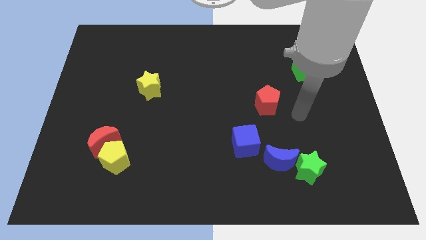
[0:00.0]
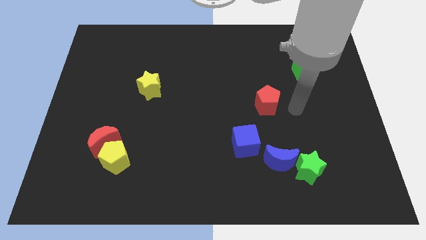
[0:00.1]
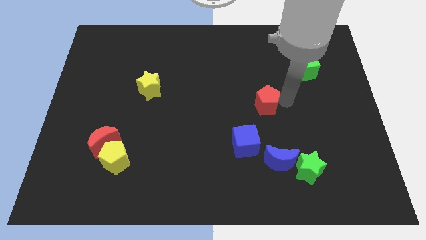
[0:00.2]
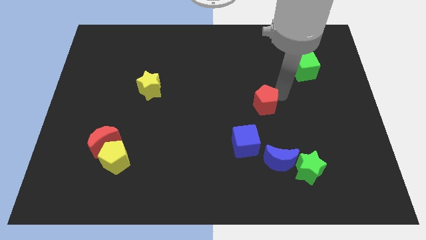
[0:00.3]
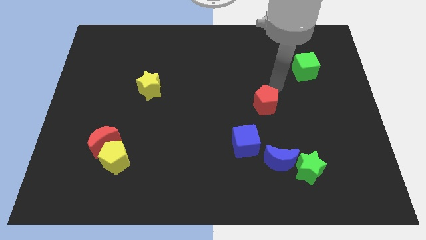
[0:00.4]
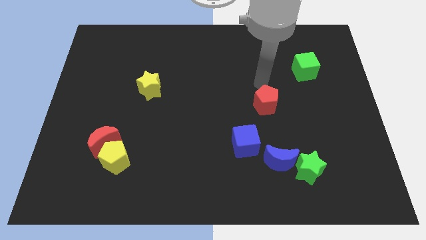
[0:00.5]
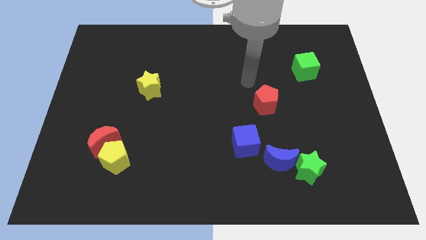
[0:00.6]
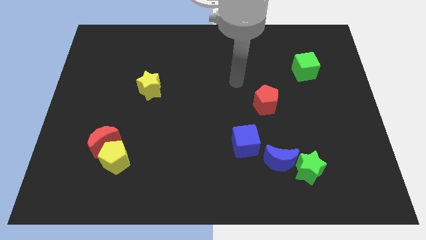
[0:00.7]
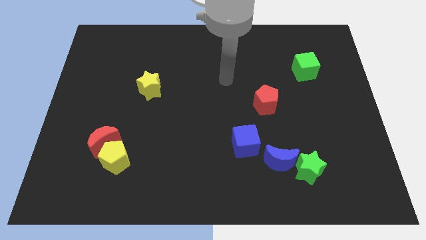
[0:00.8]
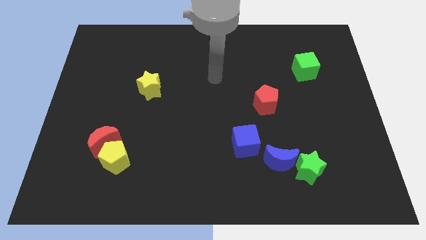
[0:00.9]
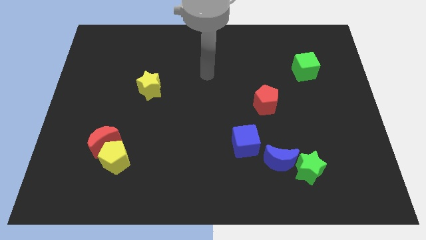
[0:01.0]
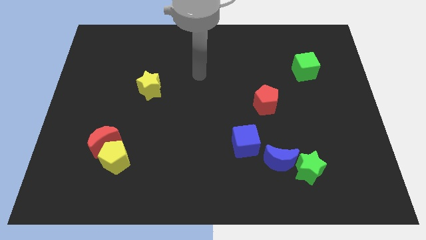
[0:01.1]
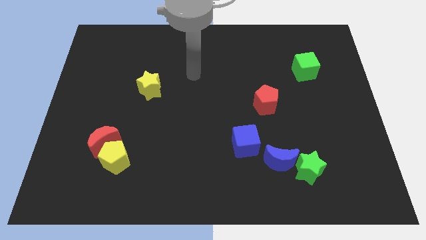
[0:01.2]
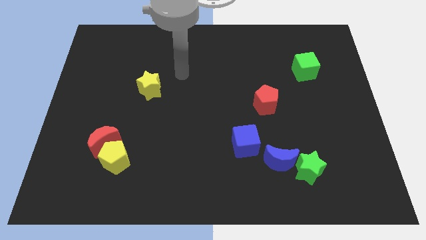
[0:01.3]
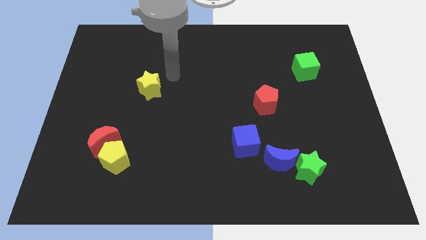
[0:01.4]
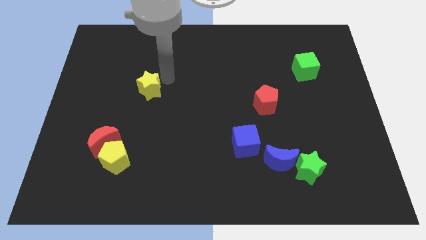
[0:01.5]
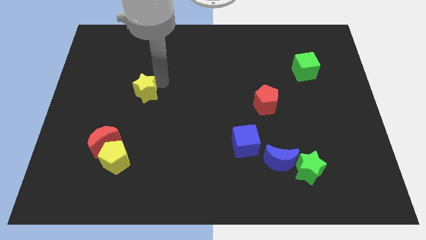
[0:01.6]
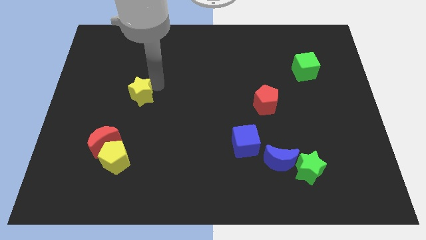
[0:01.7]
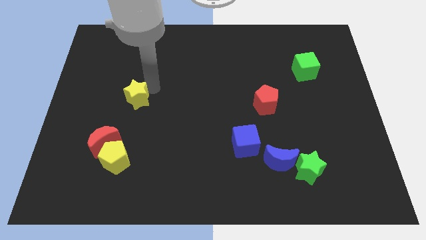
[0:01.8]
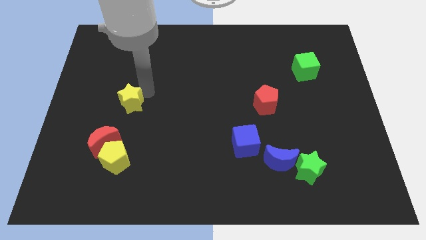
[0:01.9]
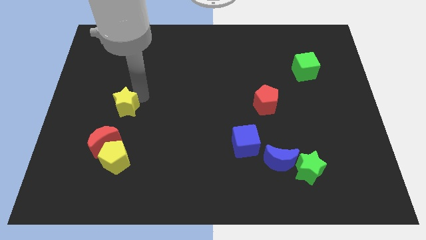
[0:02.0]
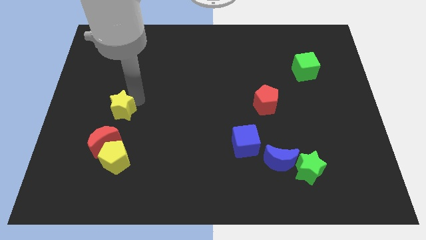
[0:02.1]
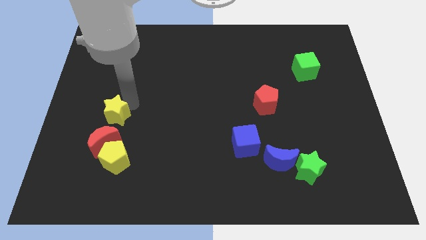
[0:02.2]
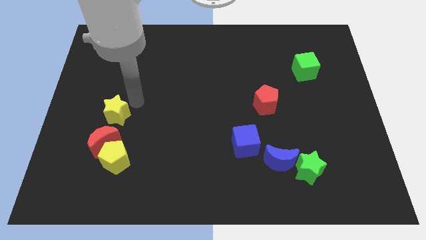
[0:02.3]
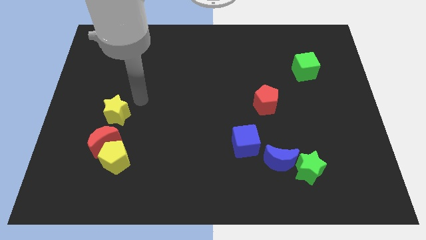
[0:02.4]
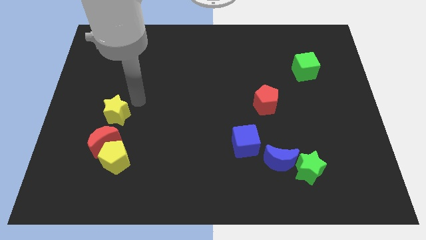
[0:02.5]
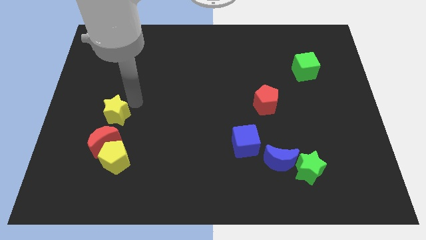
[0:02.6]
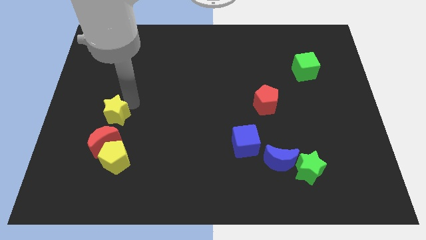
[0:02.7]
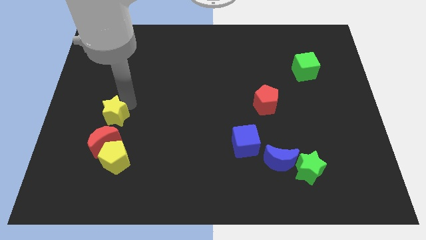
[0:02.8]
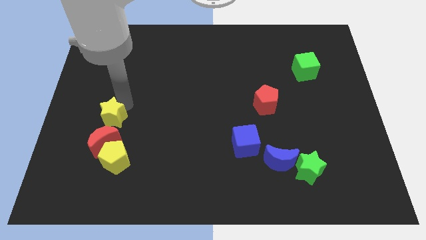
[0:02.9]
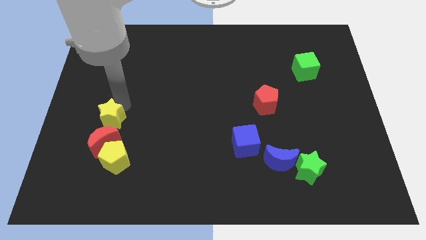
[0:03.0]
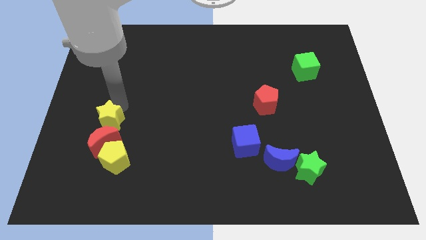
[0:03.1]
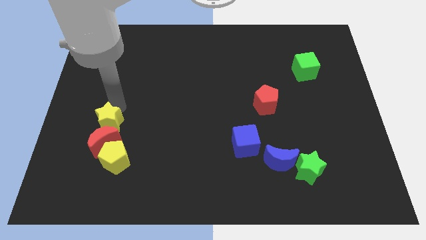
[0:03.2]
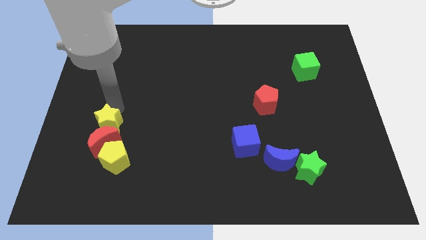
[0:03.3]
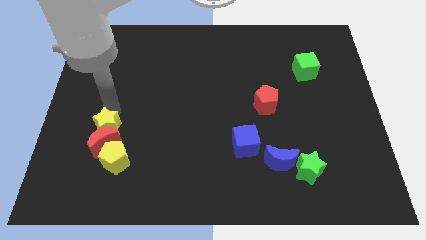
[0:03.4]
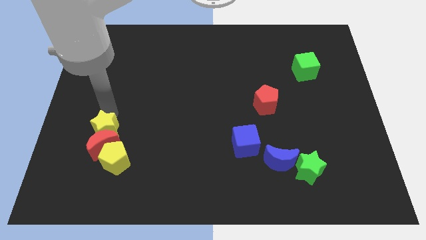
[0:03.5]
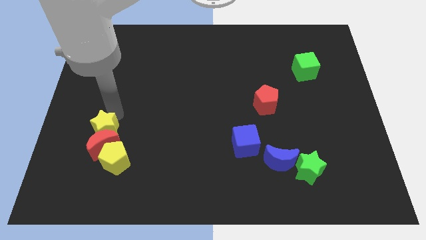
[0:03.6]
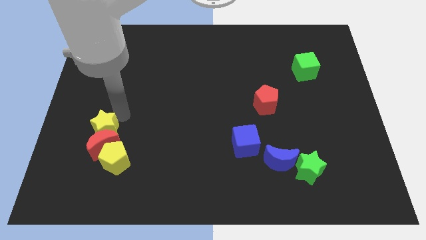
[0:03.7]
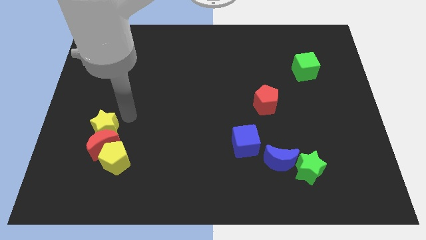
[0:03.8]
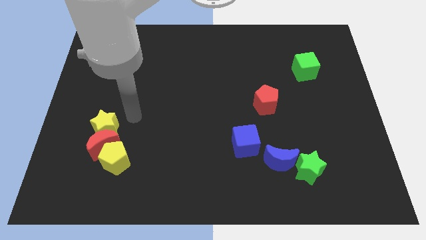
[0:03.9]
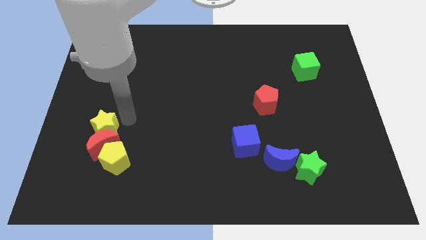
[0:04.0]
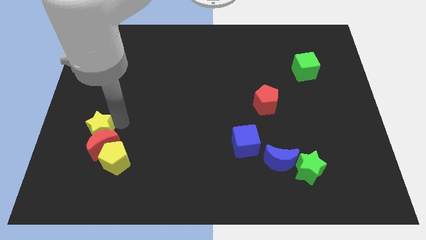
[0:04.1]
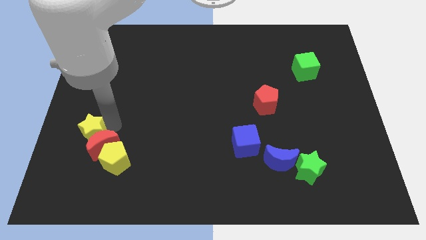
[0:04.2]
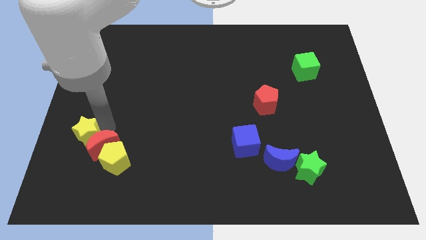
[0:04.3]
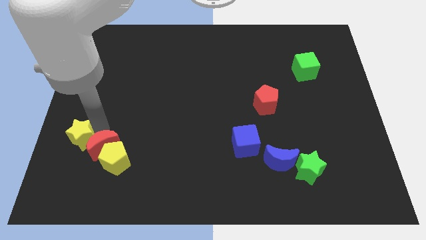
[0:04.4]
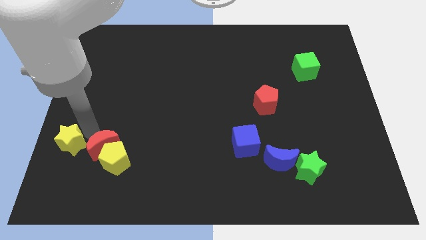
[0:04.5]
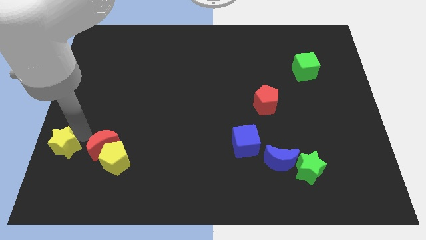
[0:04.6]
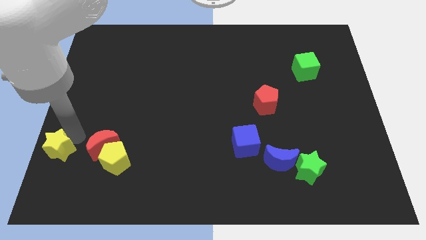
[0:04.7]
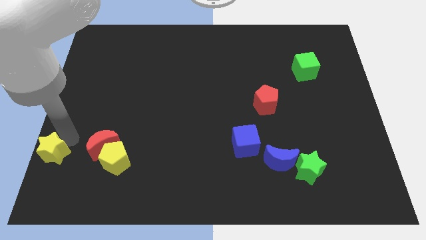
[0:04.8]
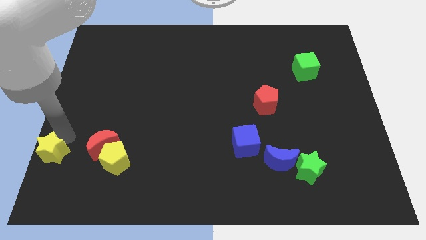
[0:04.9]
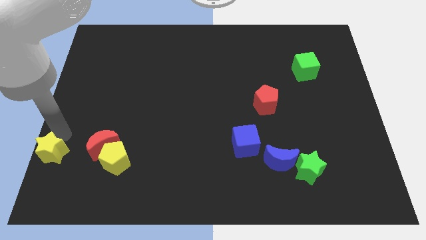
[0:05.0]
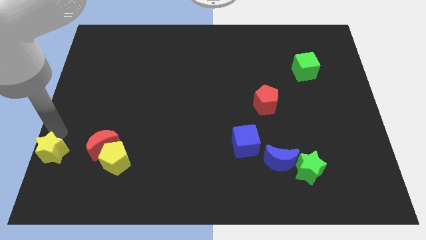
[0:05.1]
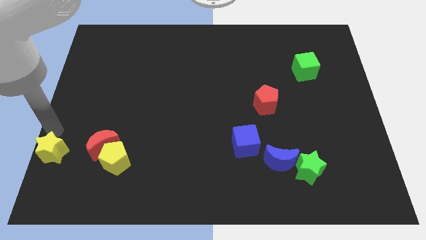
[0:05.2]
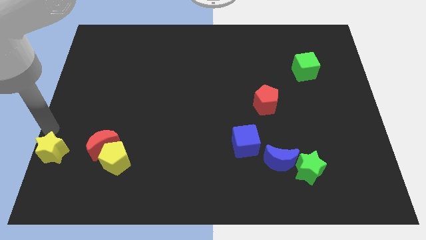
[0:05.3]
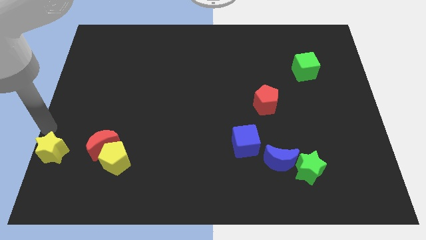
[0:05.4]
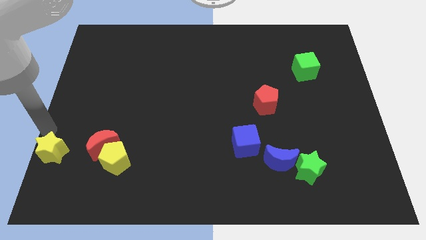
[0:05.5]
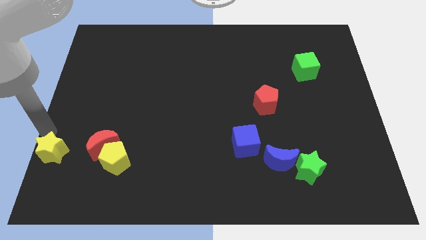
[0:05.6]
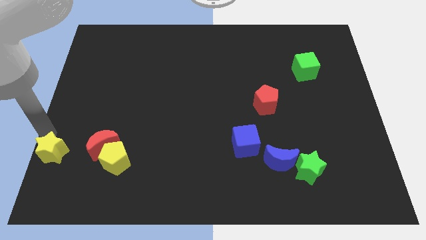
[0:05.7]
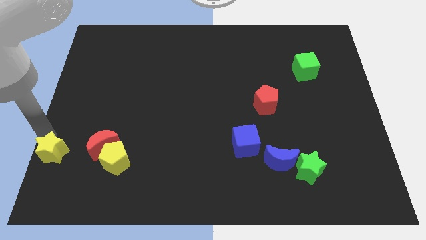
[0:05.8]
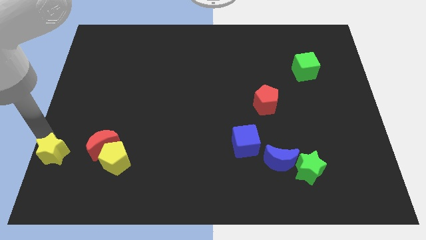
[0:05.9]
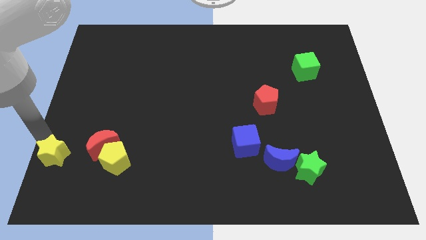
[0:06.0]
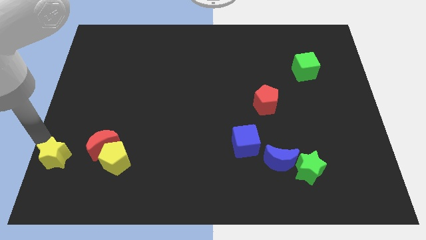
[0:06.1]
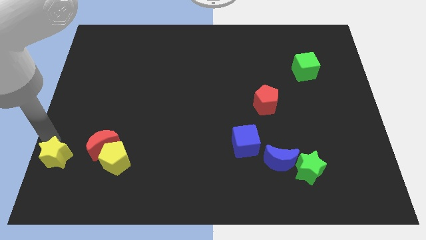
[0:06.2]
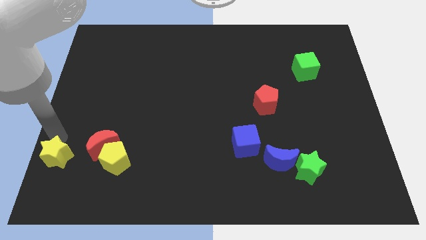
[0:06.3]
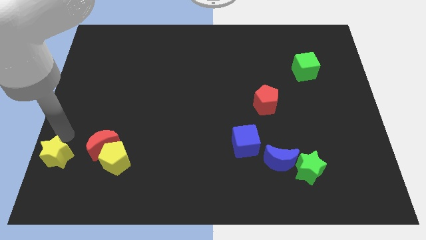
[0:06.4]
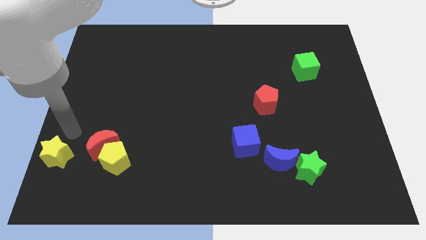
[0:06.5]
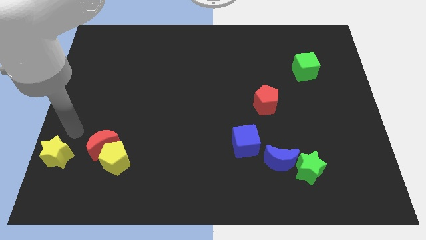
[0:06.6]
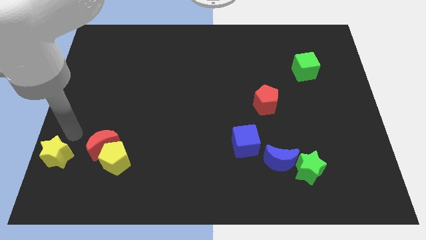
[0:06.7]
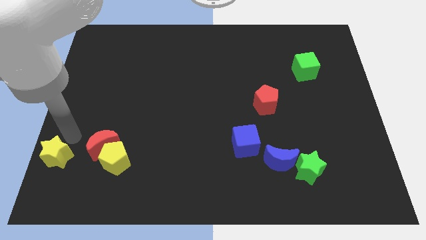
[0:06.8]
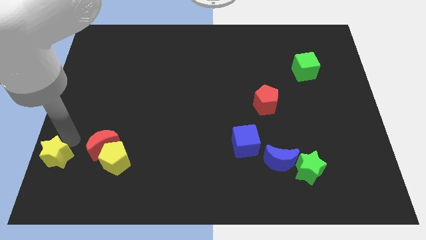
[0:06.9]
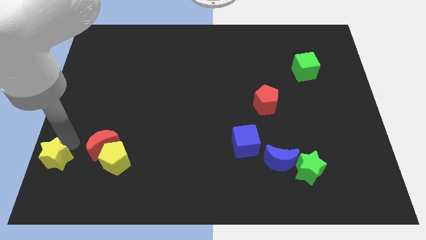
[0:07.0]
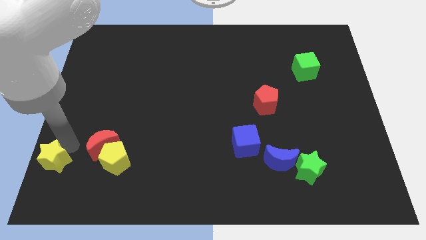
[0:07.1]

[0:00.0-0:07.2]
push the yellow star to the bottom left

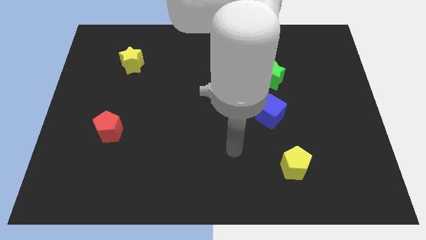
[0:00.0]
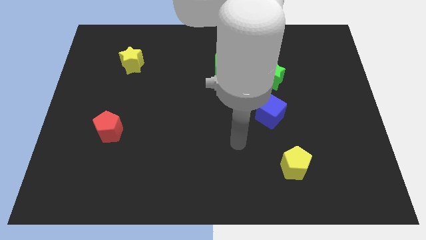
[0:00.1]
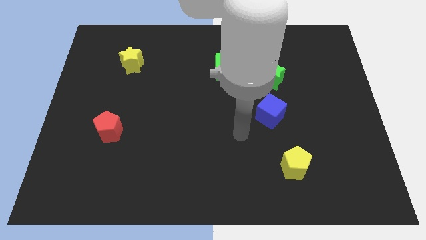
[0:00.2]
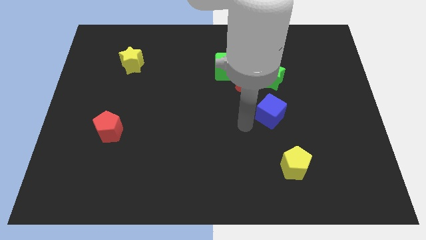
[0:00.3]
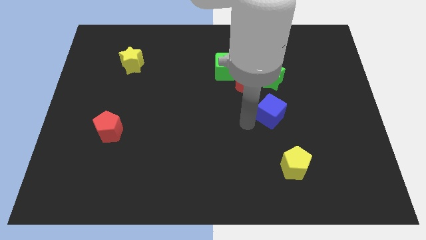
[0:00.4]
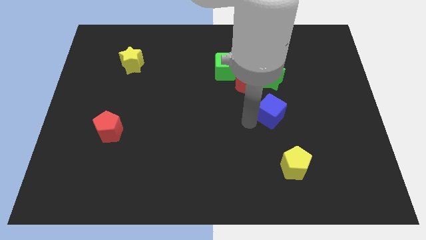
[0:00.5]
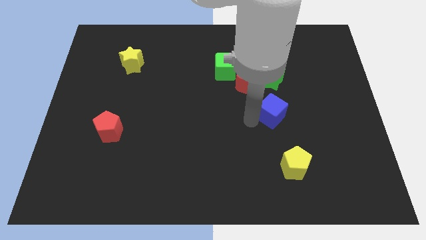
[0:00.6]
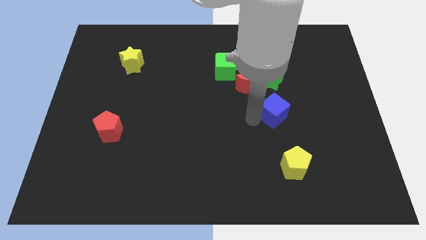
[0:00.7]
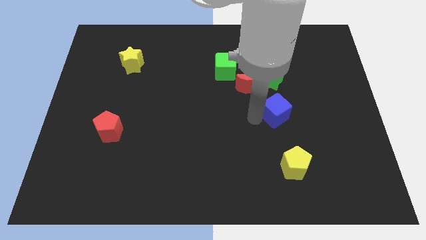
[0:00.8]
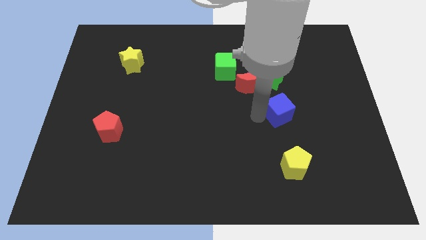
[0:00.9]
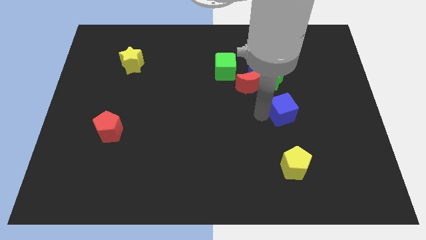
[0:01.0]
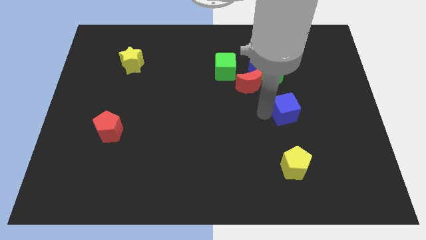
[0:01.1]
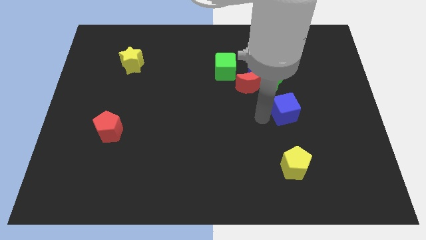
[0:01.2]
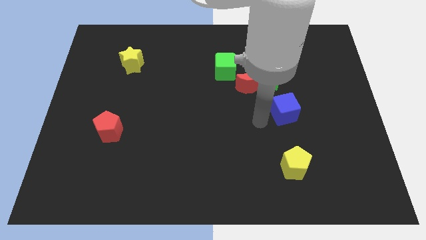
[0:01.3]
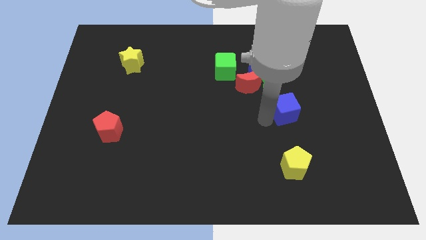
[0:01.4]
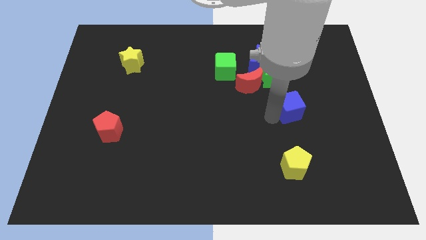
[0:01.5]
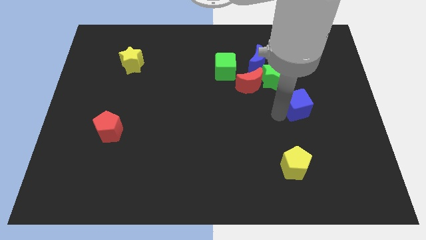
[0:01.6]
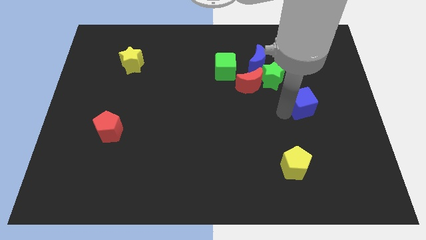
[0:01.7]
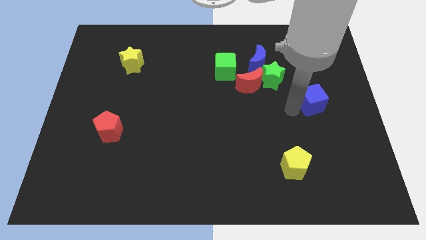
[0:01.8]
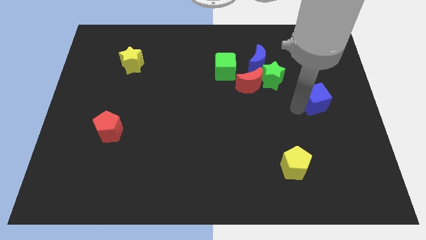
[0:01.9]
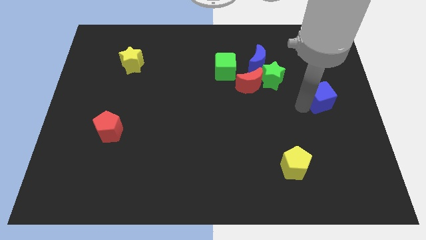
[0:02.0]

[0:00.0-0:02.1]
move the blue cube to the center right
